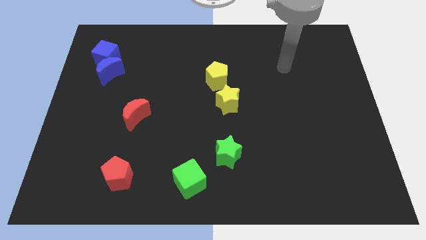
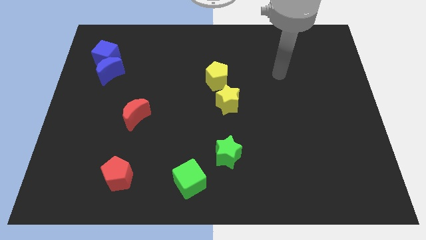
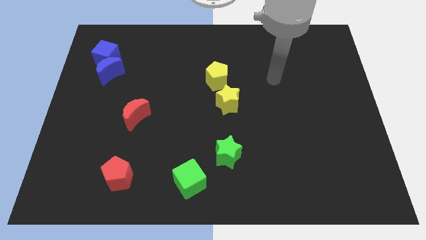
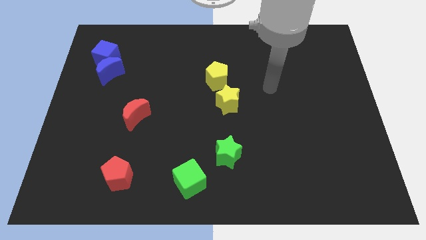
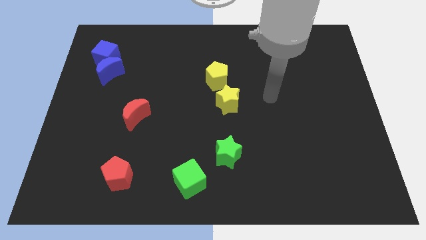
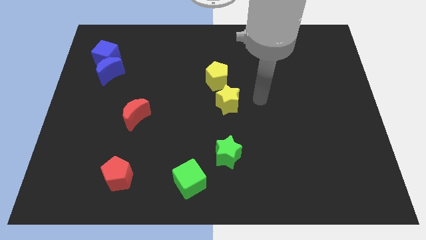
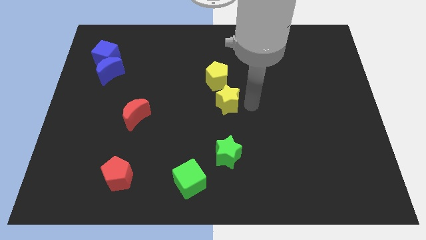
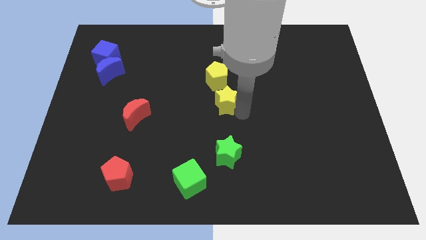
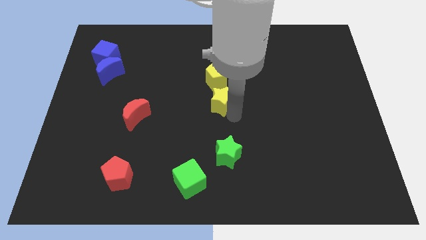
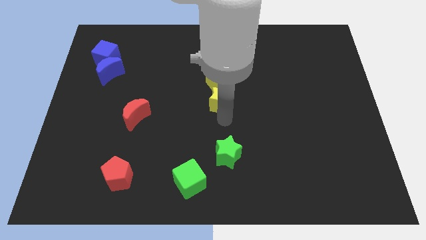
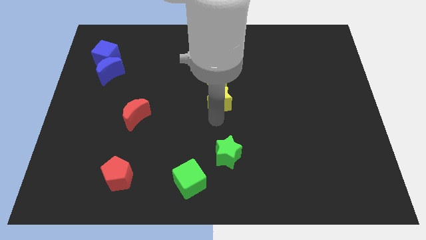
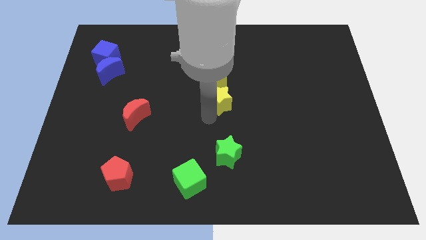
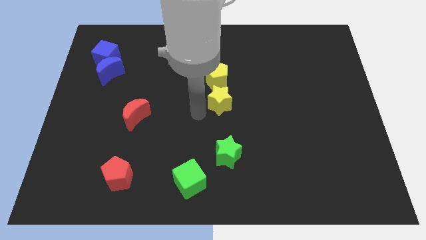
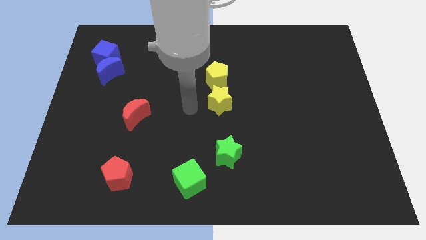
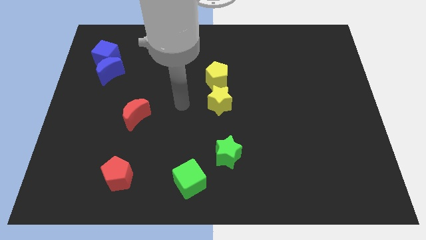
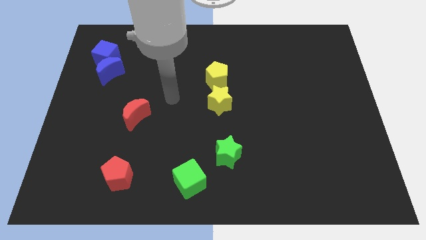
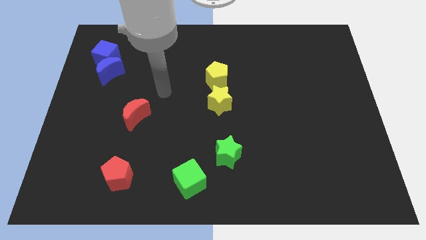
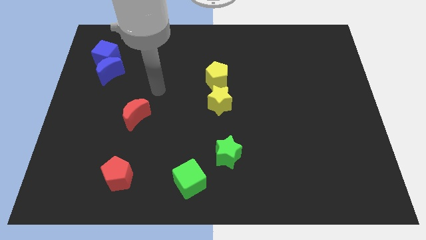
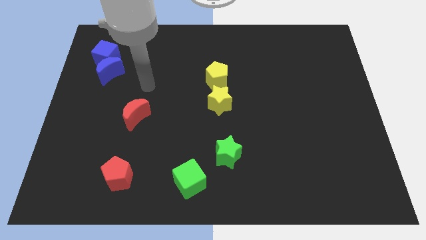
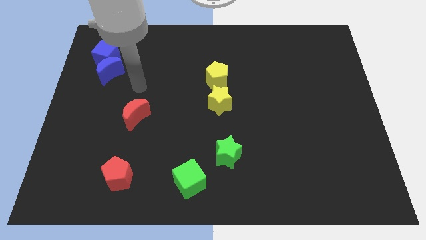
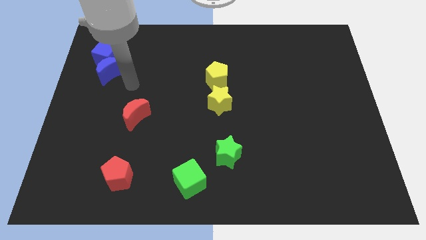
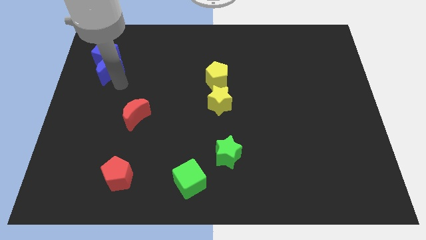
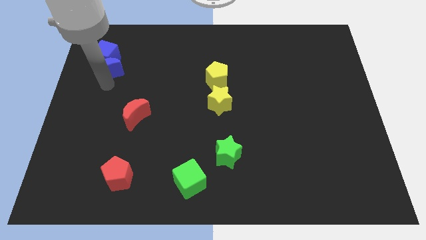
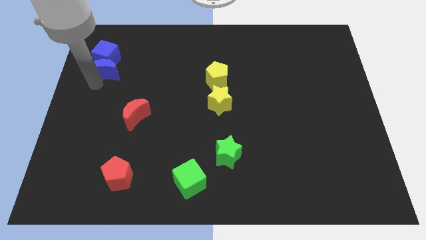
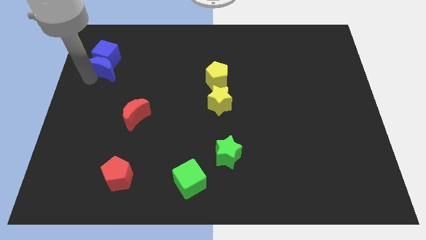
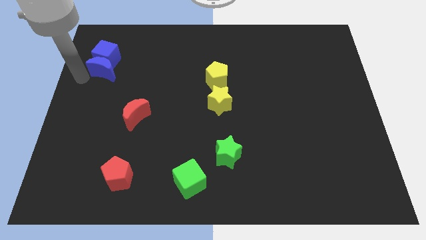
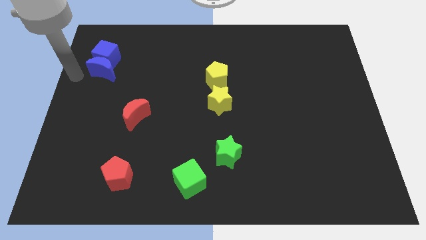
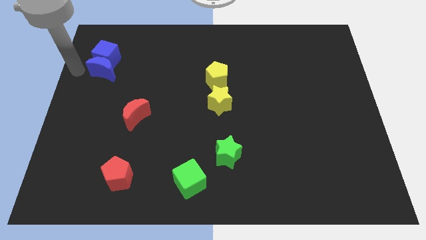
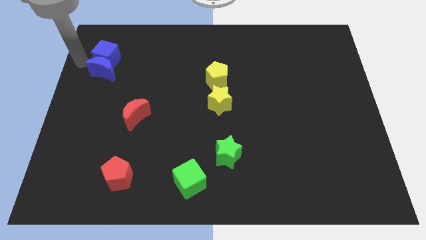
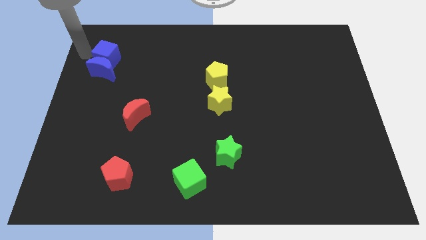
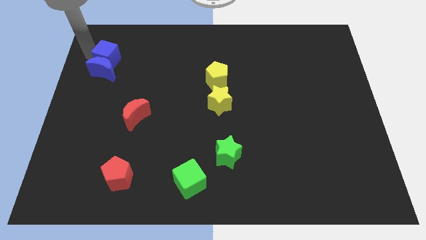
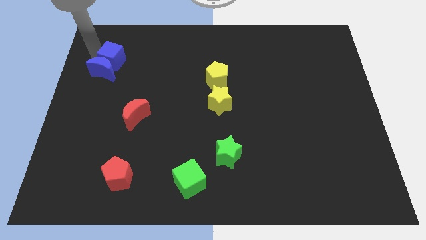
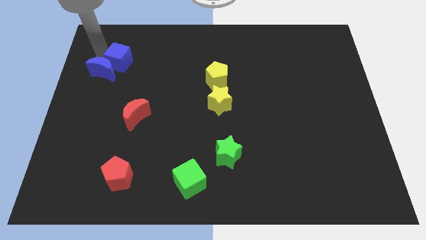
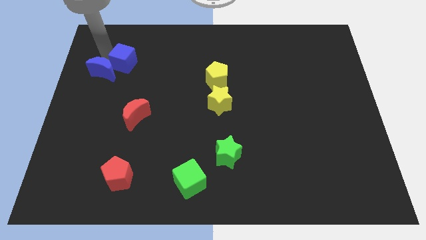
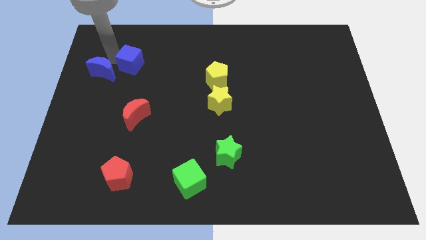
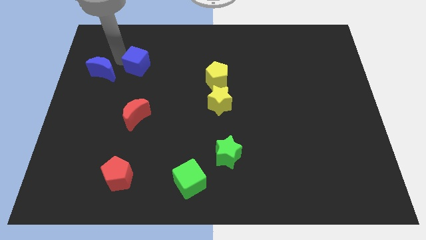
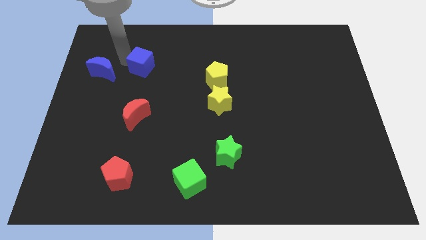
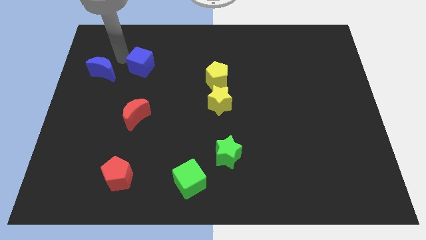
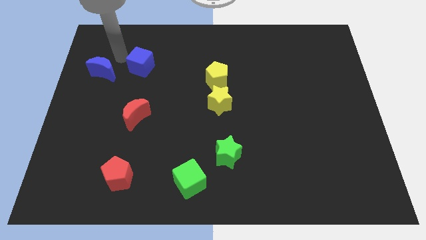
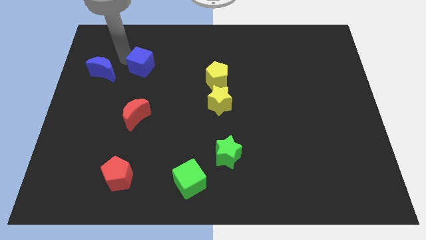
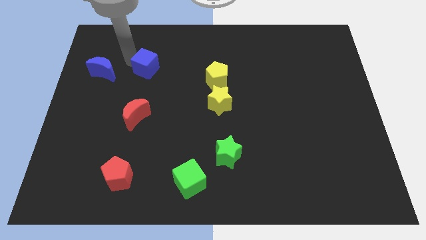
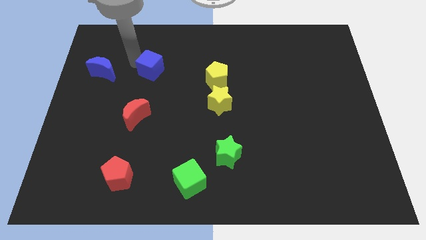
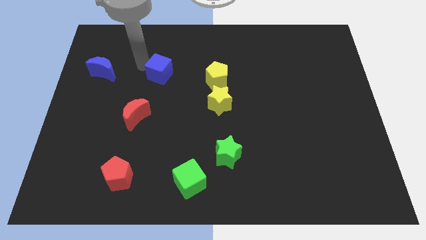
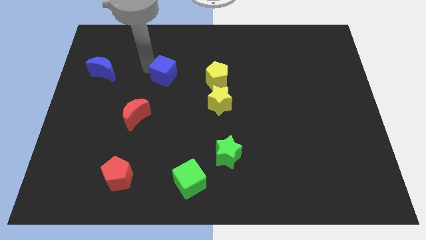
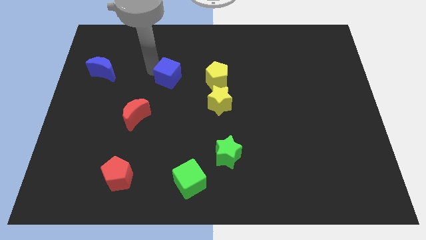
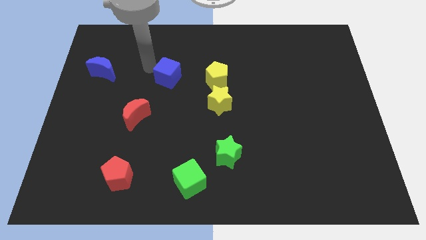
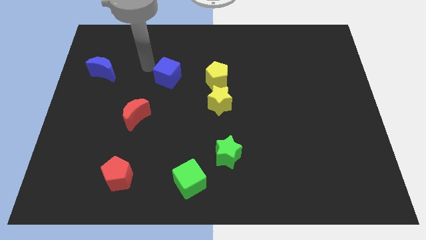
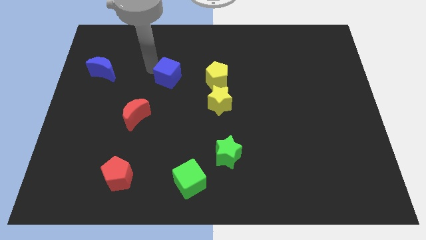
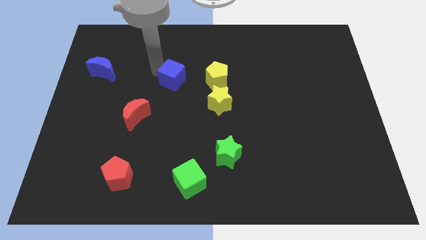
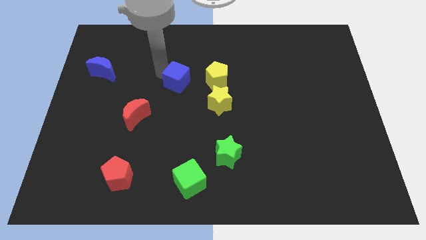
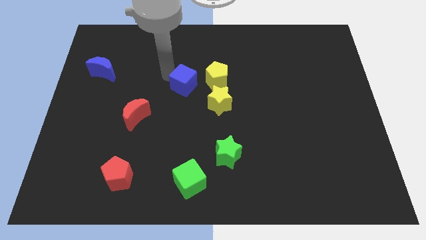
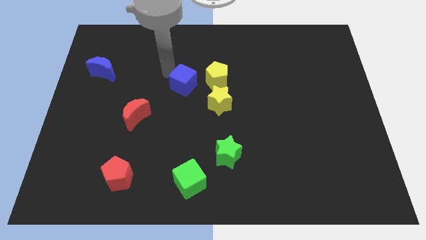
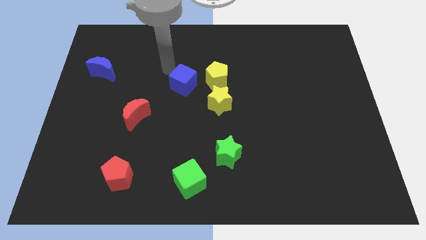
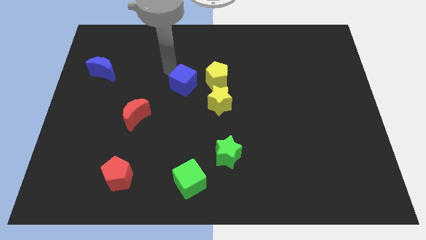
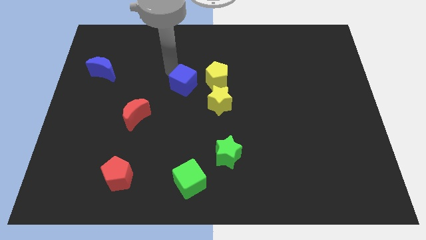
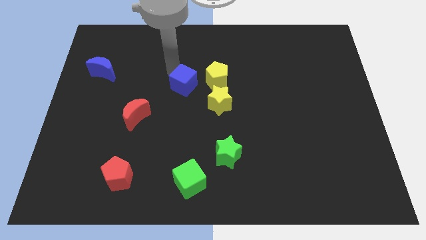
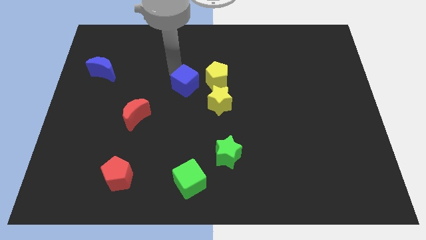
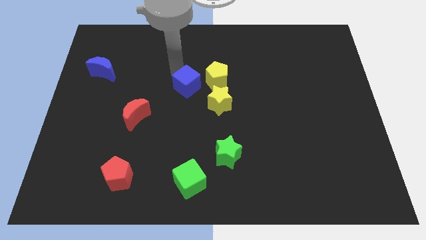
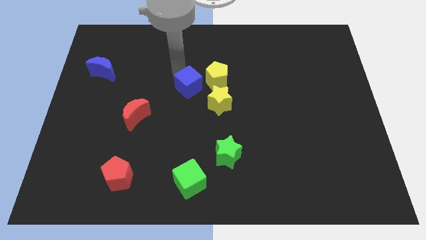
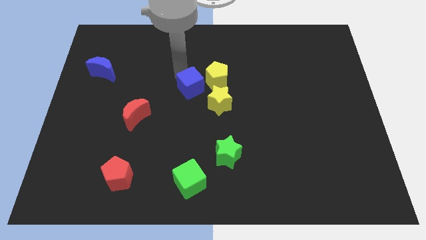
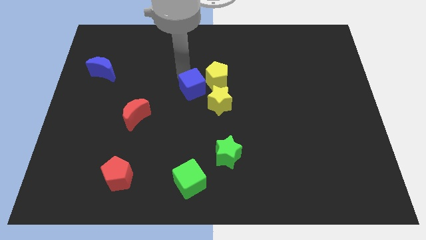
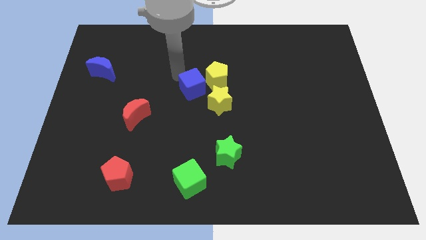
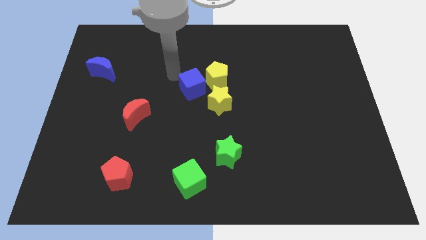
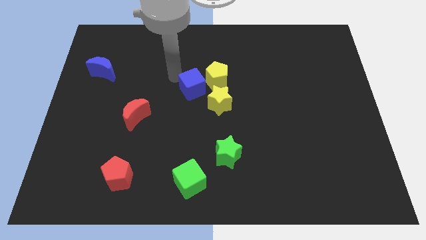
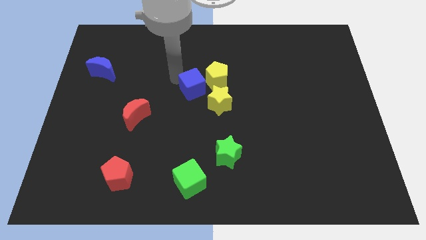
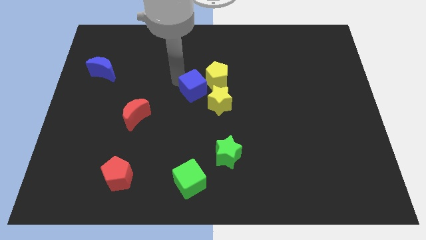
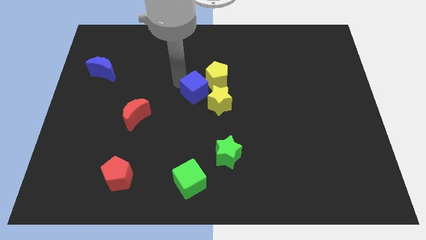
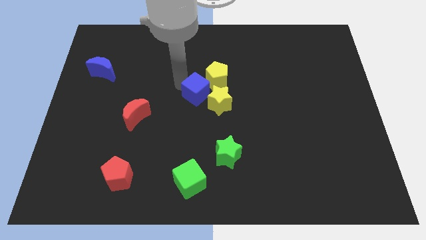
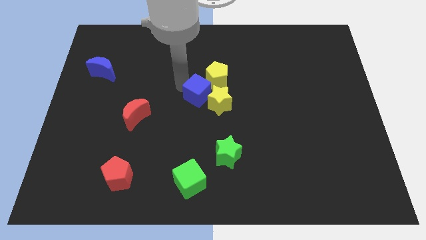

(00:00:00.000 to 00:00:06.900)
put the blue cube next to the yellow star
